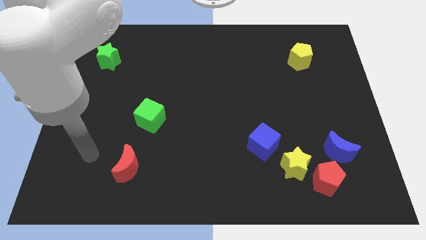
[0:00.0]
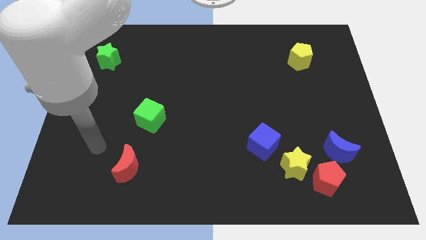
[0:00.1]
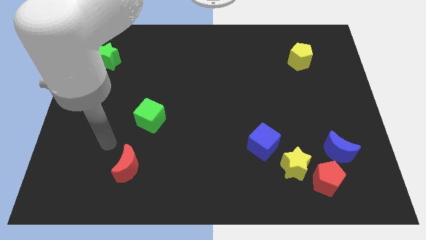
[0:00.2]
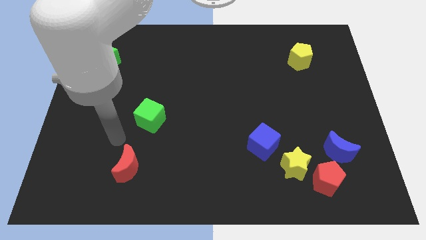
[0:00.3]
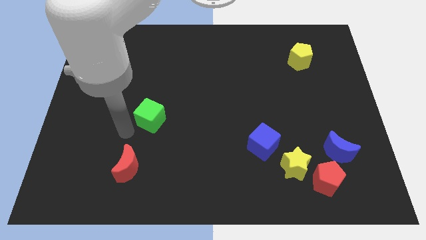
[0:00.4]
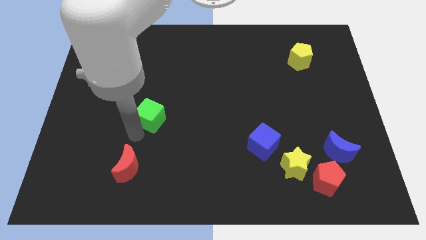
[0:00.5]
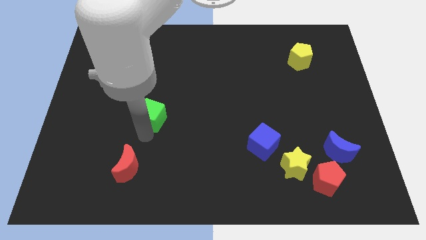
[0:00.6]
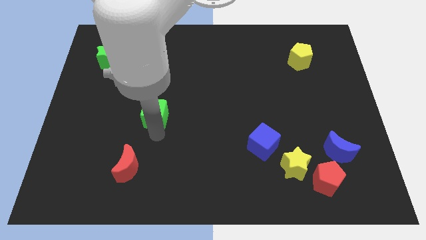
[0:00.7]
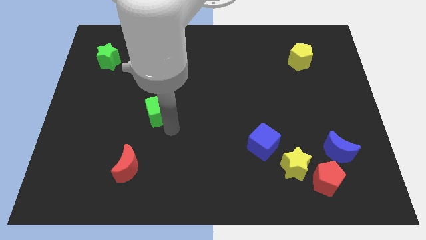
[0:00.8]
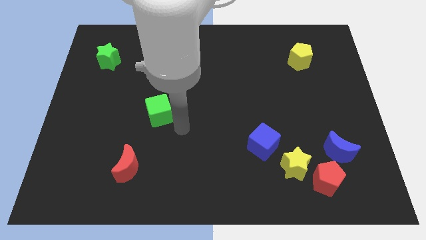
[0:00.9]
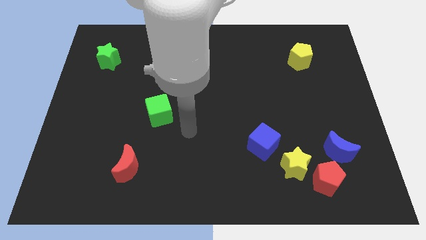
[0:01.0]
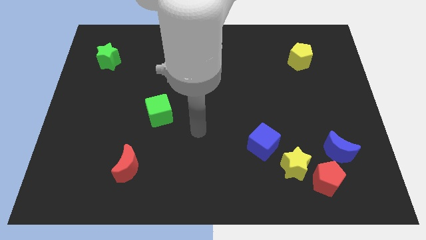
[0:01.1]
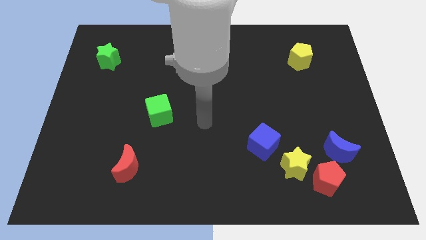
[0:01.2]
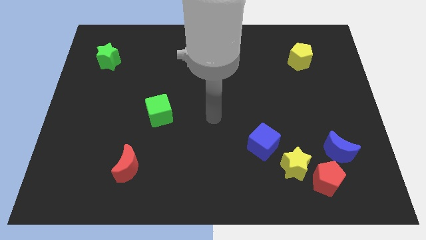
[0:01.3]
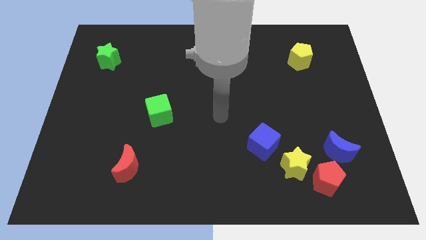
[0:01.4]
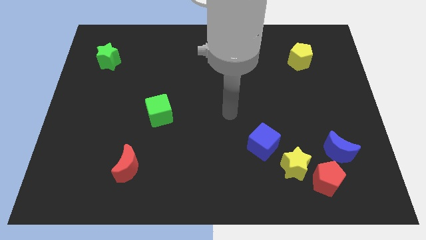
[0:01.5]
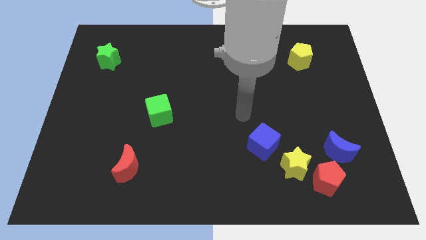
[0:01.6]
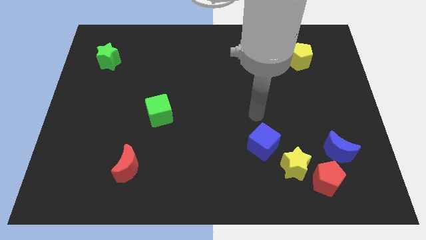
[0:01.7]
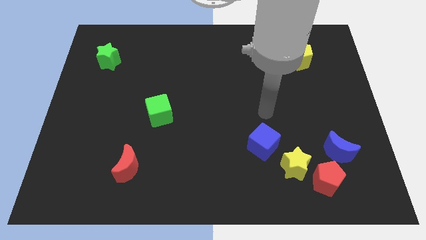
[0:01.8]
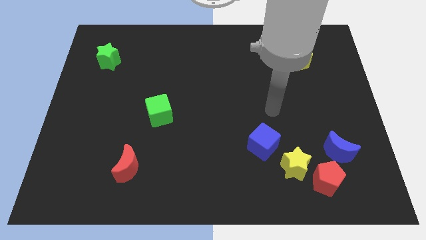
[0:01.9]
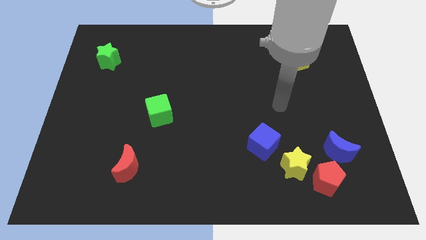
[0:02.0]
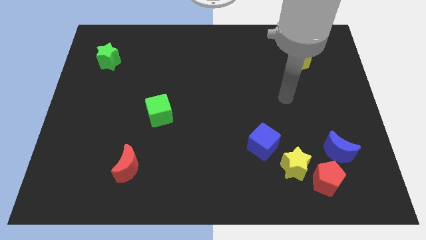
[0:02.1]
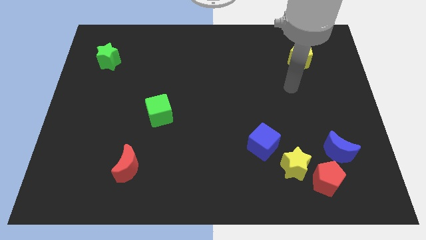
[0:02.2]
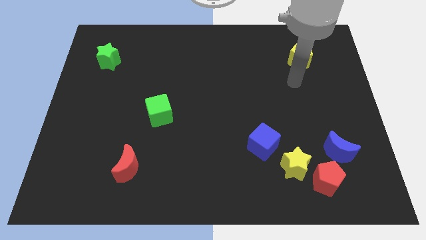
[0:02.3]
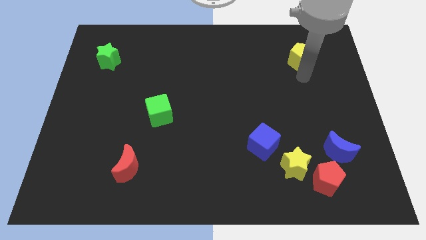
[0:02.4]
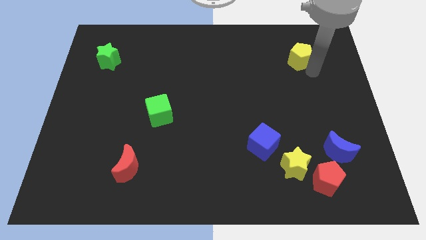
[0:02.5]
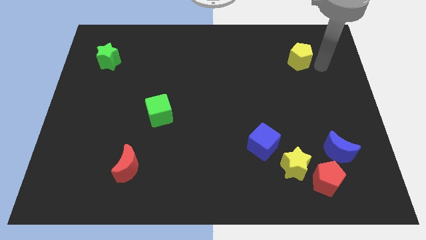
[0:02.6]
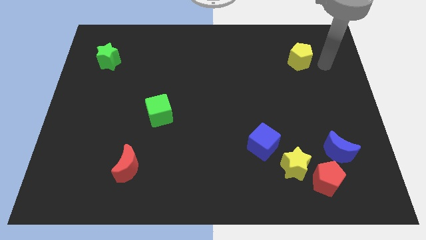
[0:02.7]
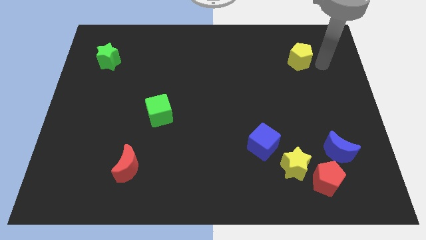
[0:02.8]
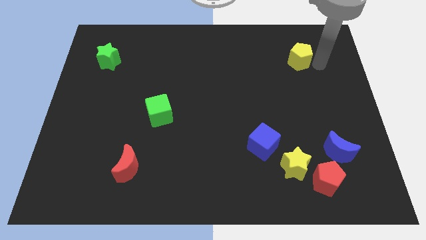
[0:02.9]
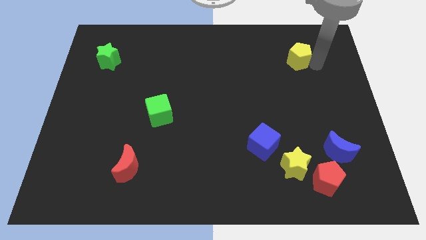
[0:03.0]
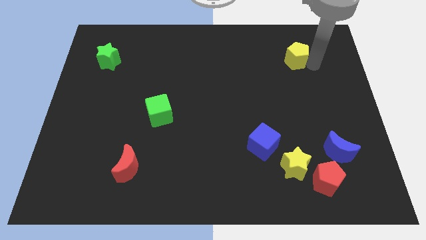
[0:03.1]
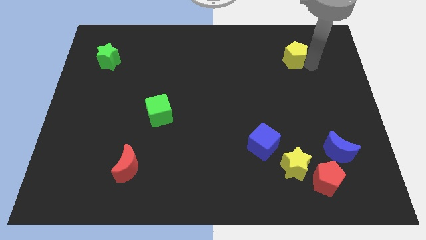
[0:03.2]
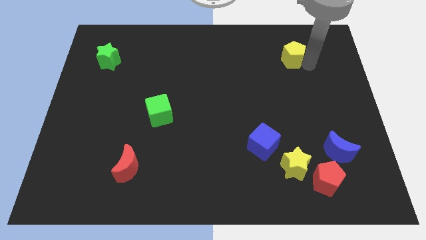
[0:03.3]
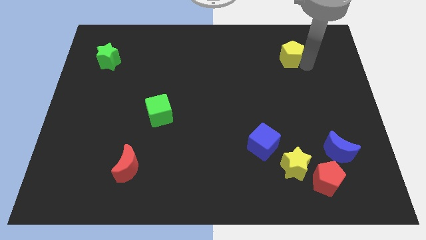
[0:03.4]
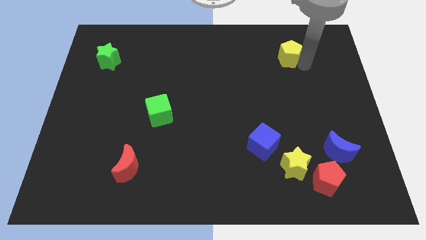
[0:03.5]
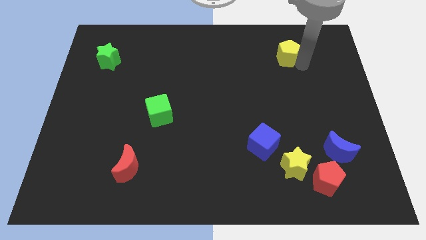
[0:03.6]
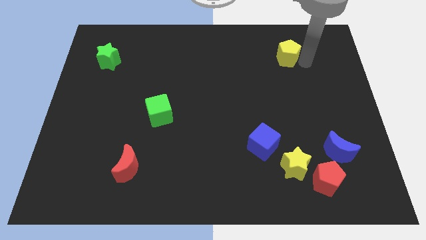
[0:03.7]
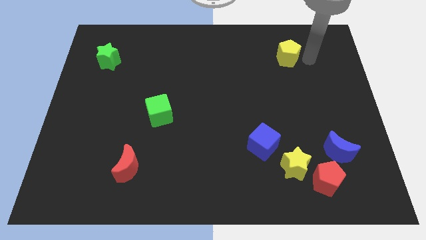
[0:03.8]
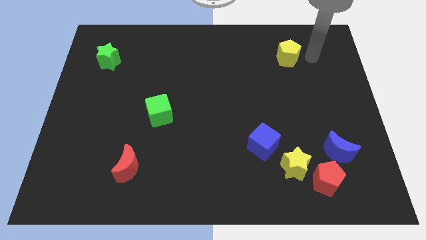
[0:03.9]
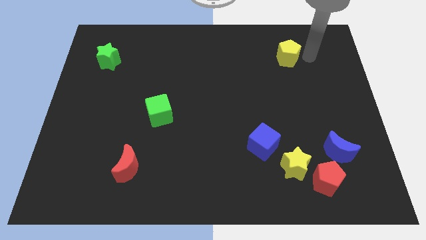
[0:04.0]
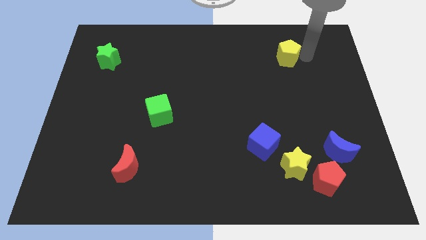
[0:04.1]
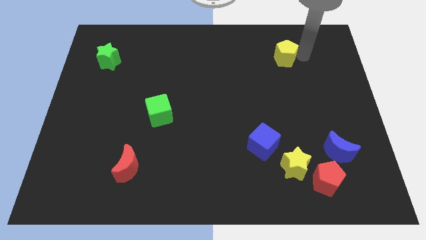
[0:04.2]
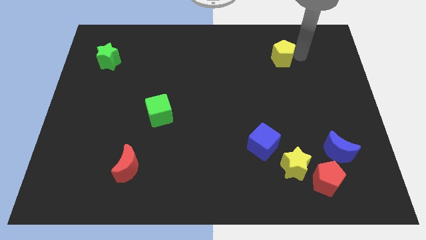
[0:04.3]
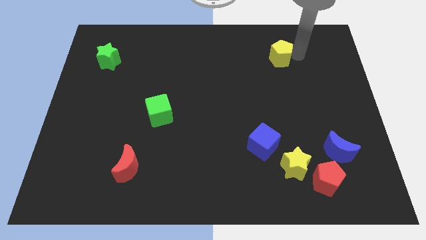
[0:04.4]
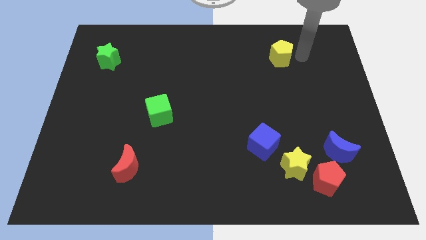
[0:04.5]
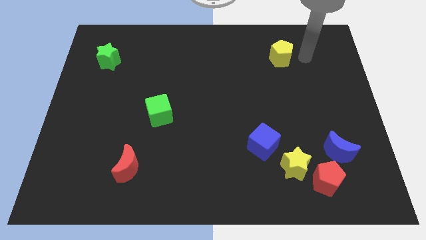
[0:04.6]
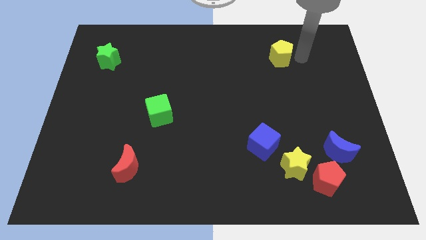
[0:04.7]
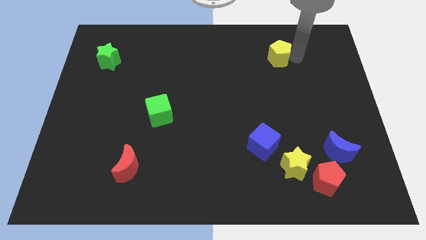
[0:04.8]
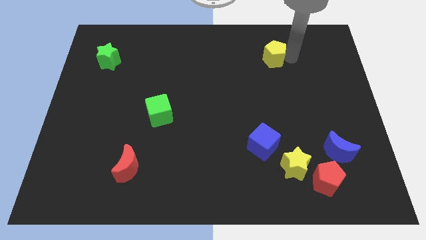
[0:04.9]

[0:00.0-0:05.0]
move the yellow pentagon a bit left

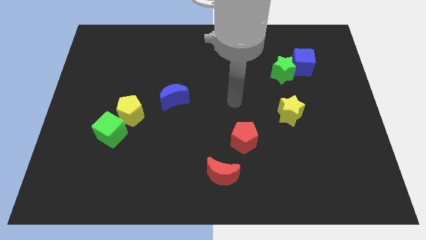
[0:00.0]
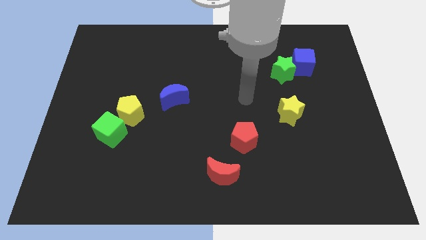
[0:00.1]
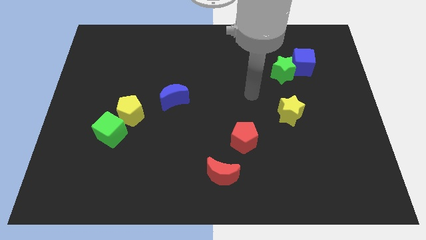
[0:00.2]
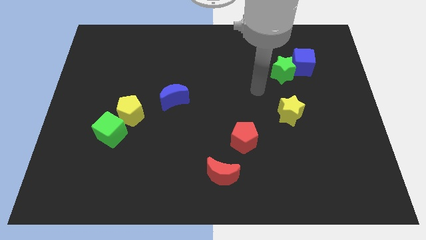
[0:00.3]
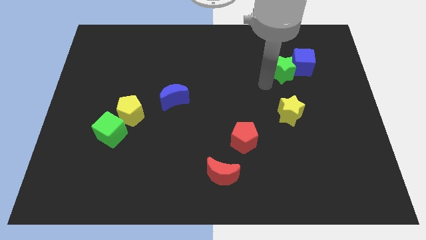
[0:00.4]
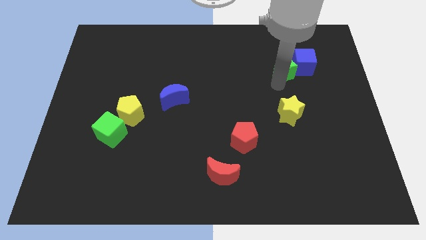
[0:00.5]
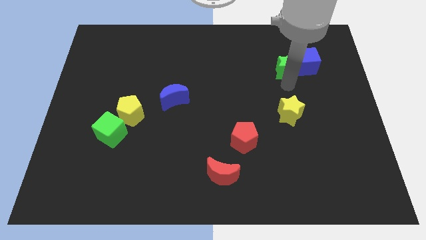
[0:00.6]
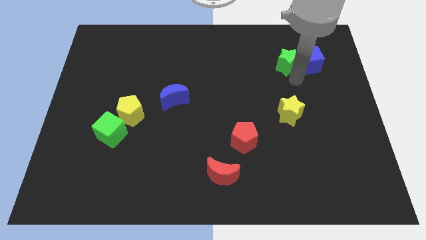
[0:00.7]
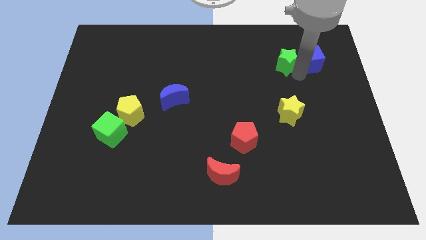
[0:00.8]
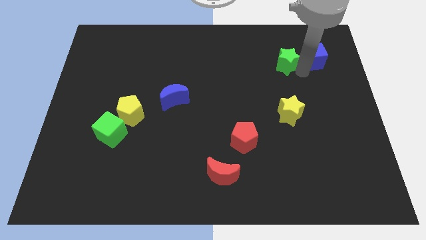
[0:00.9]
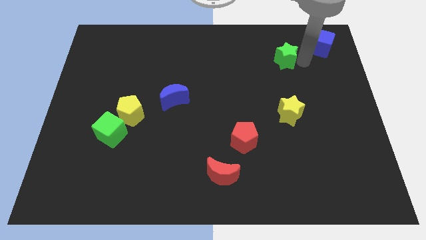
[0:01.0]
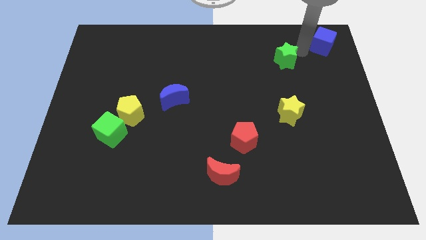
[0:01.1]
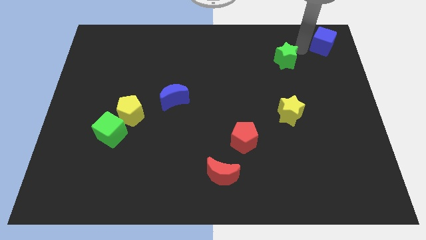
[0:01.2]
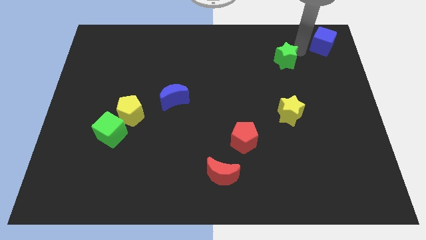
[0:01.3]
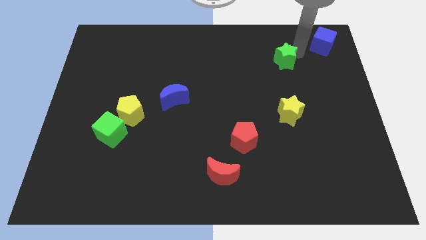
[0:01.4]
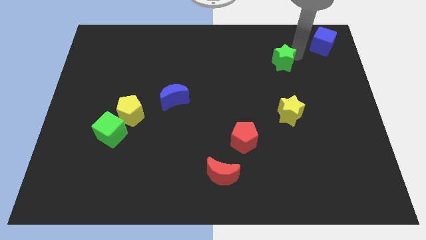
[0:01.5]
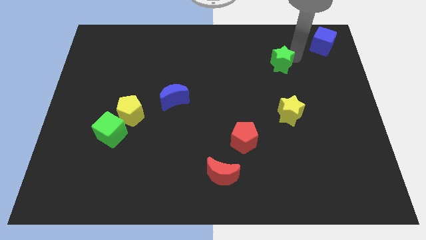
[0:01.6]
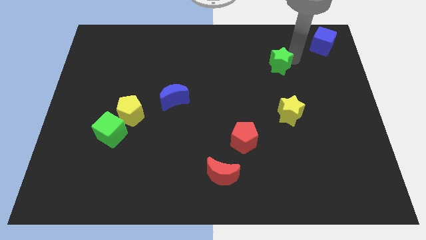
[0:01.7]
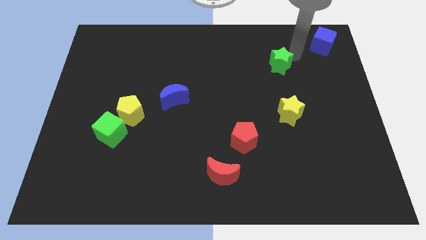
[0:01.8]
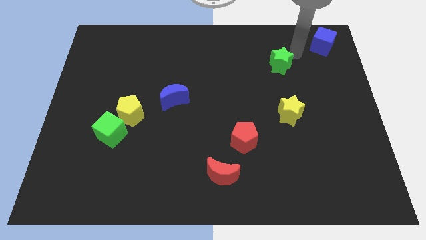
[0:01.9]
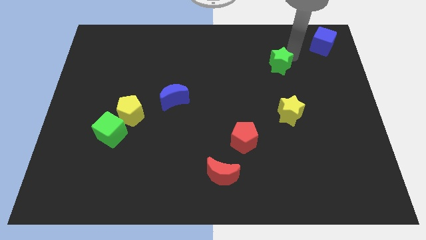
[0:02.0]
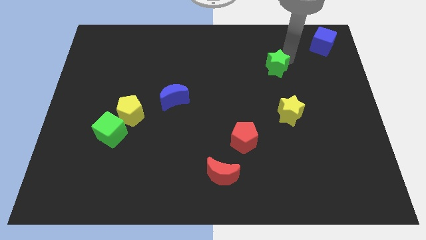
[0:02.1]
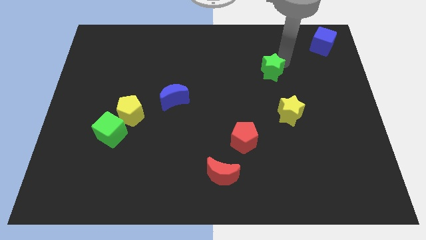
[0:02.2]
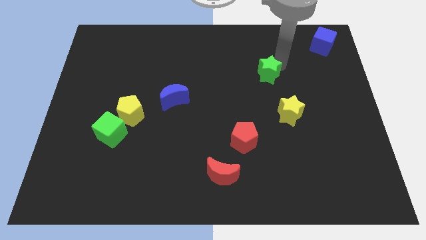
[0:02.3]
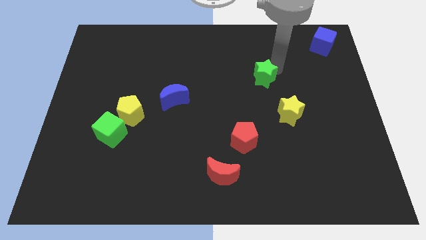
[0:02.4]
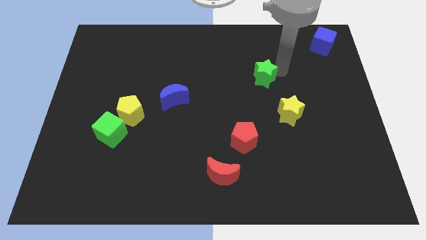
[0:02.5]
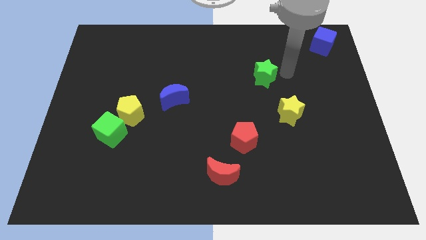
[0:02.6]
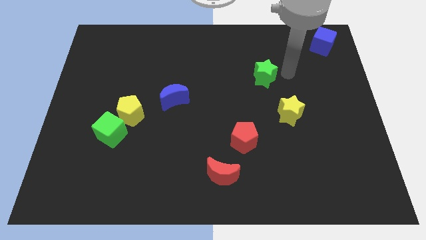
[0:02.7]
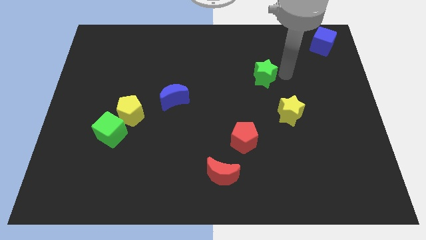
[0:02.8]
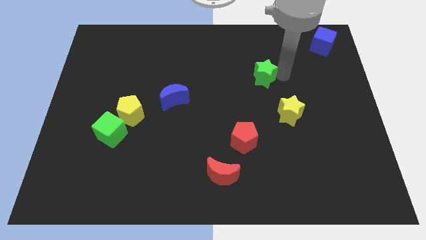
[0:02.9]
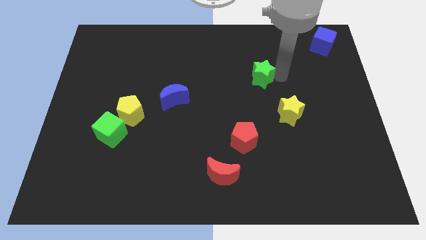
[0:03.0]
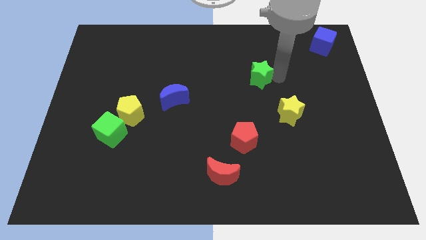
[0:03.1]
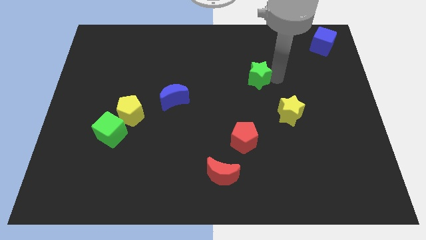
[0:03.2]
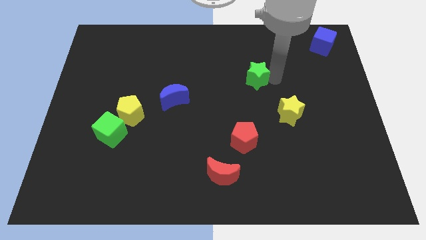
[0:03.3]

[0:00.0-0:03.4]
slightly move the green star left
